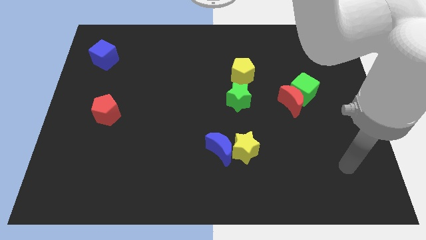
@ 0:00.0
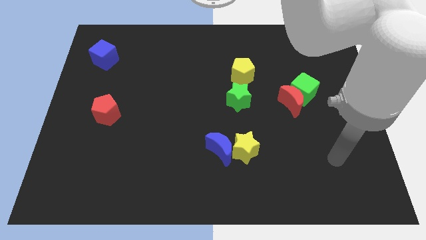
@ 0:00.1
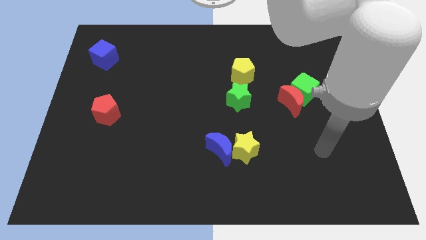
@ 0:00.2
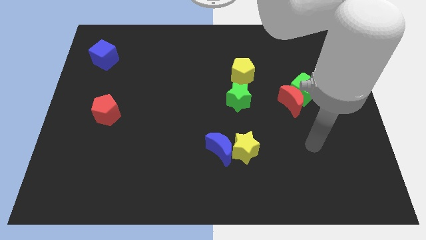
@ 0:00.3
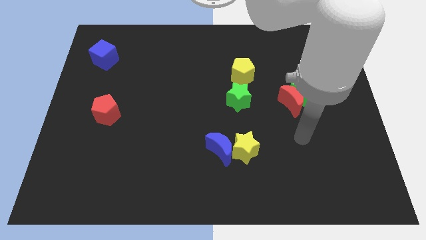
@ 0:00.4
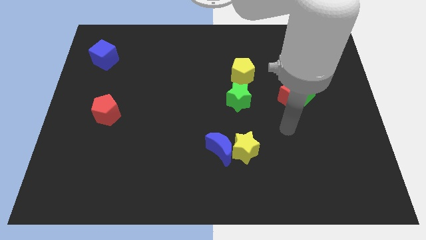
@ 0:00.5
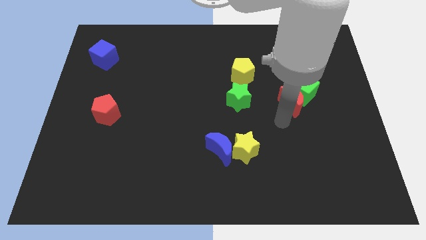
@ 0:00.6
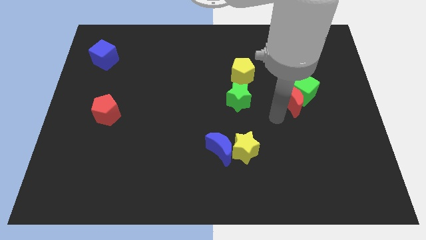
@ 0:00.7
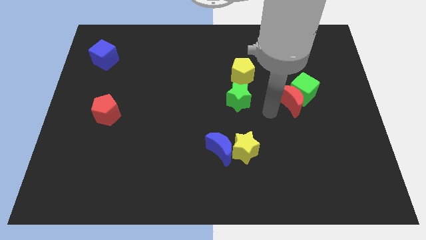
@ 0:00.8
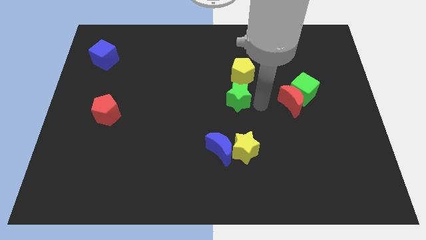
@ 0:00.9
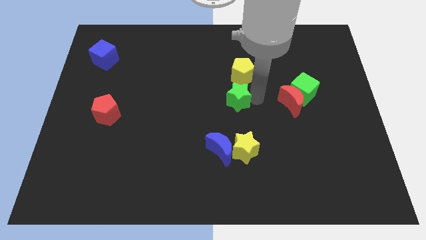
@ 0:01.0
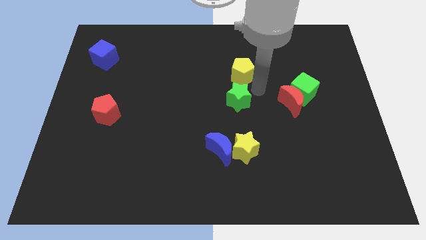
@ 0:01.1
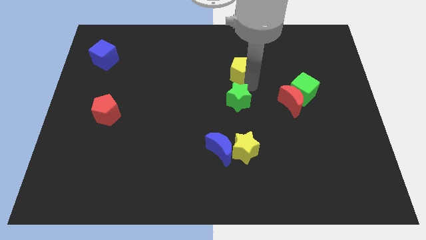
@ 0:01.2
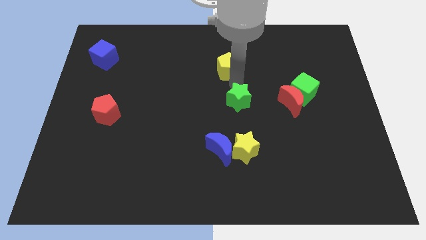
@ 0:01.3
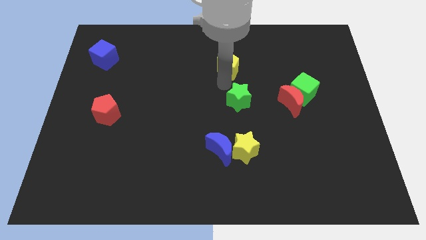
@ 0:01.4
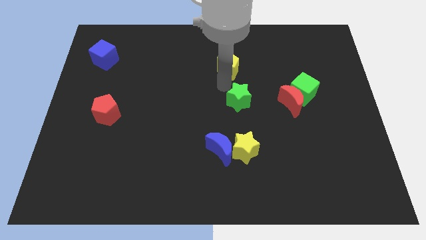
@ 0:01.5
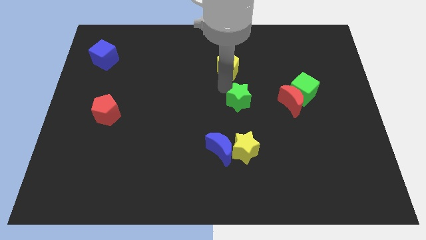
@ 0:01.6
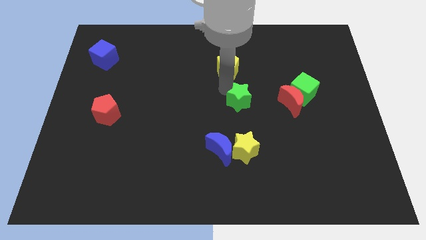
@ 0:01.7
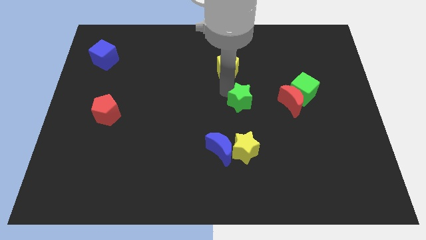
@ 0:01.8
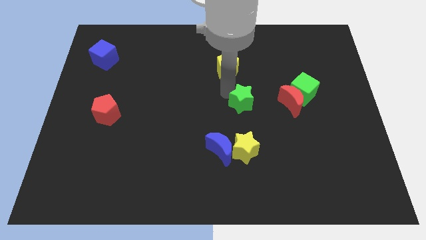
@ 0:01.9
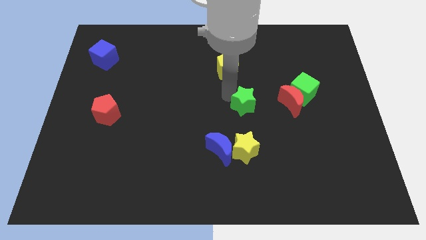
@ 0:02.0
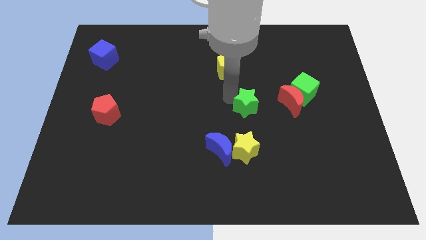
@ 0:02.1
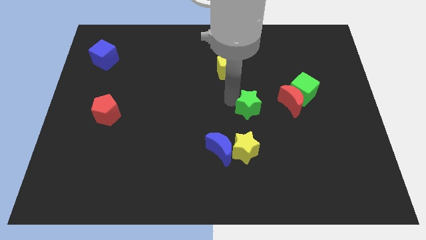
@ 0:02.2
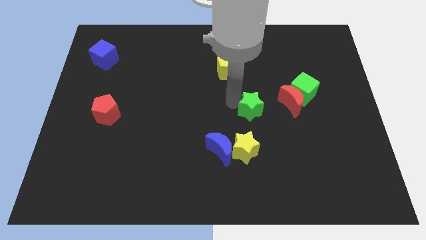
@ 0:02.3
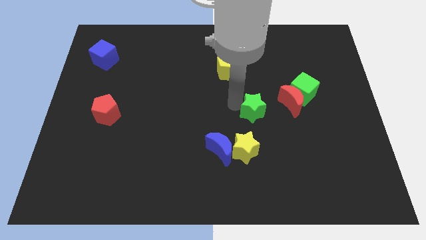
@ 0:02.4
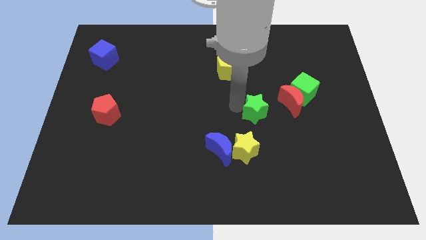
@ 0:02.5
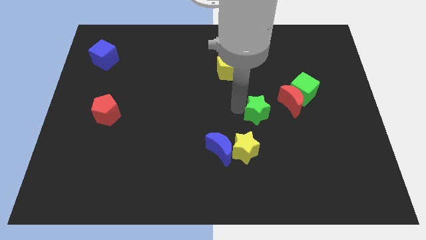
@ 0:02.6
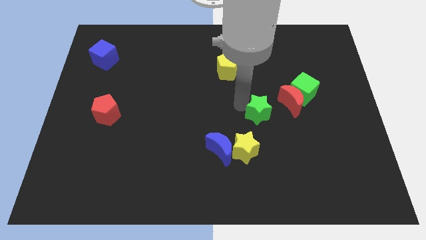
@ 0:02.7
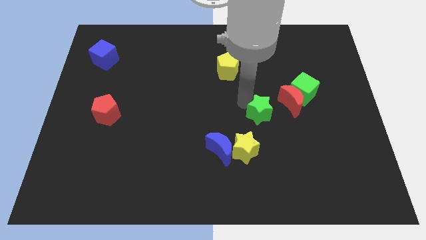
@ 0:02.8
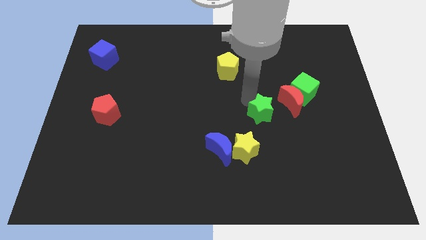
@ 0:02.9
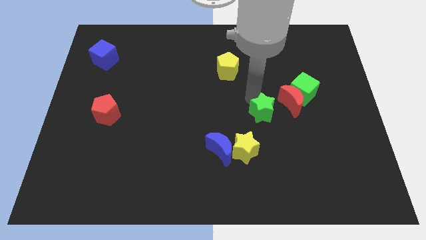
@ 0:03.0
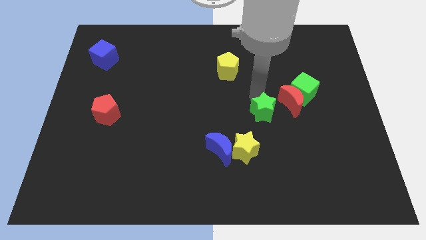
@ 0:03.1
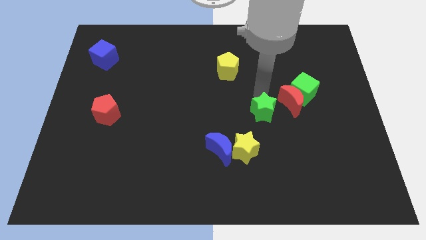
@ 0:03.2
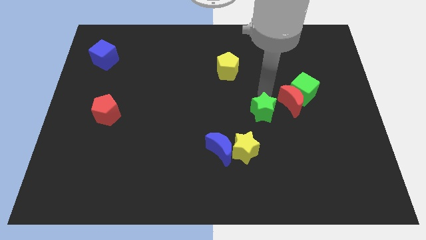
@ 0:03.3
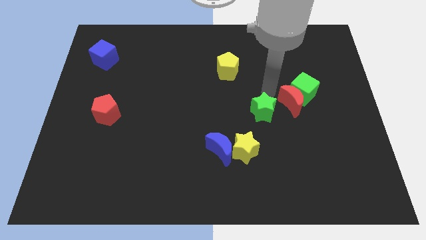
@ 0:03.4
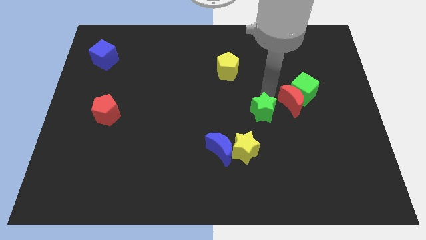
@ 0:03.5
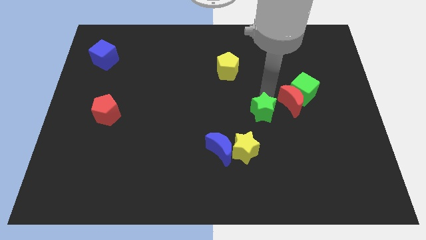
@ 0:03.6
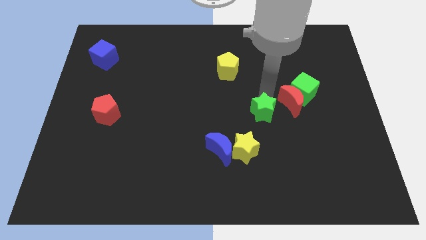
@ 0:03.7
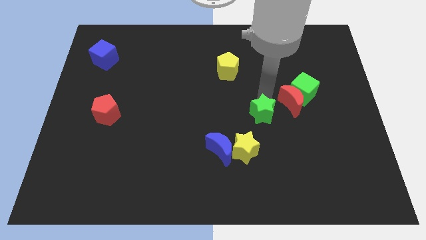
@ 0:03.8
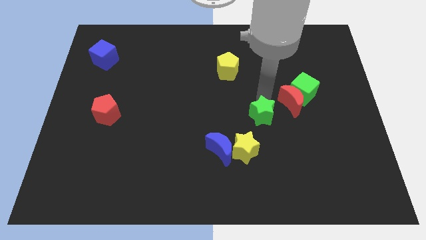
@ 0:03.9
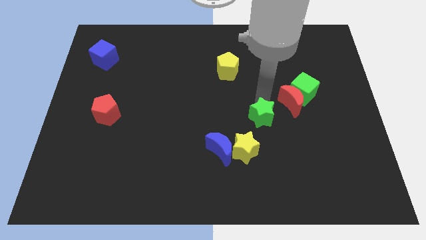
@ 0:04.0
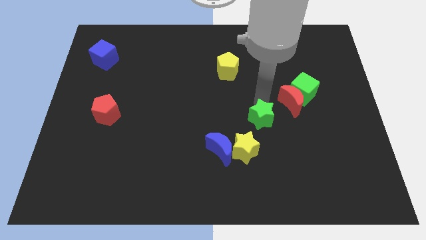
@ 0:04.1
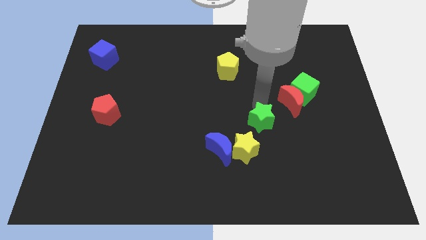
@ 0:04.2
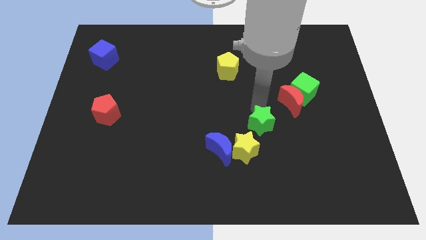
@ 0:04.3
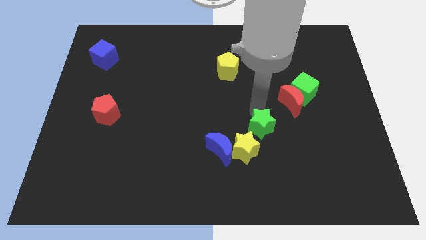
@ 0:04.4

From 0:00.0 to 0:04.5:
push the green star a little bit downwards

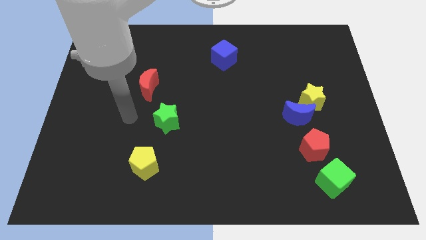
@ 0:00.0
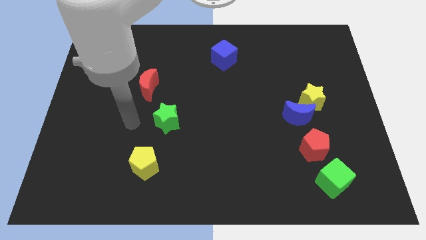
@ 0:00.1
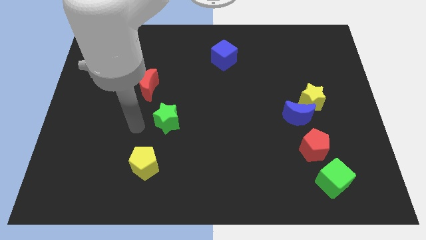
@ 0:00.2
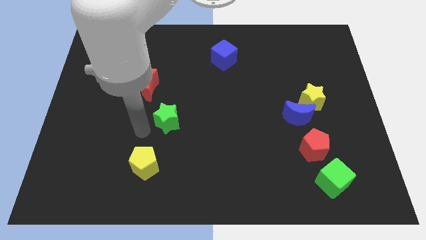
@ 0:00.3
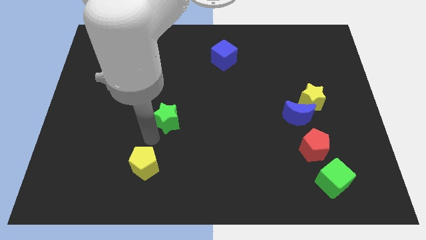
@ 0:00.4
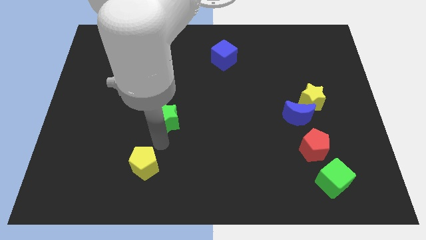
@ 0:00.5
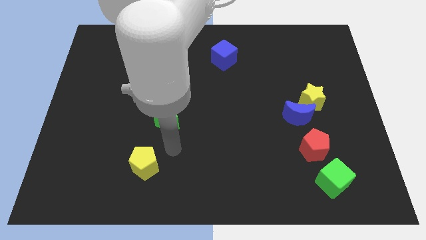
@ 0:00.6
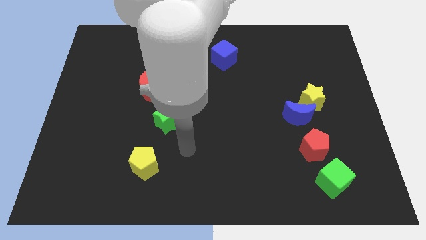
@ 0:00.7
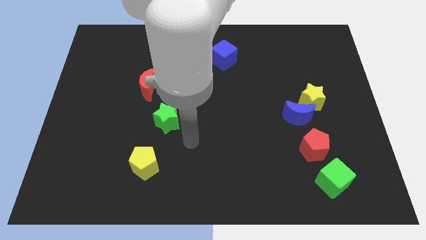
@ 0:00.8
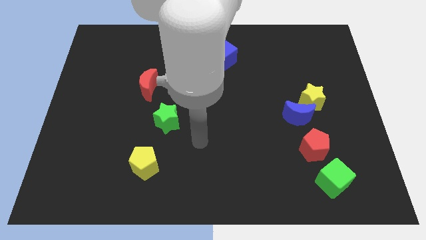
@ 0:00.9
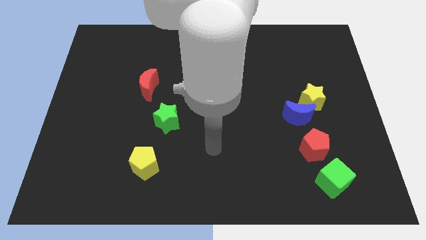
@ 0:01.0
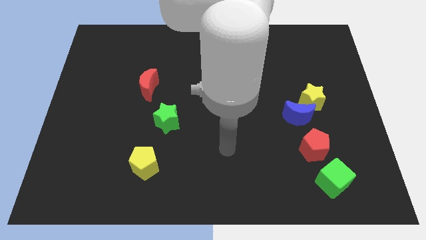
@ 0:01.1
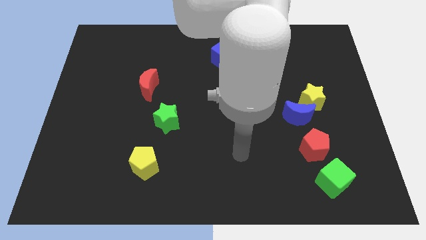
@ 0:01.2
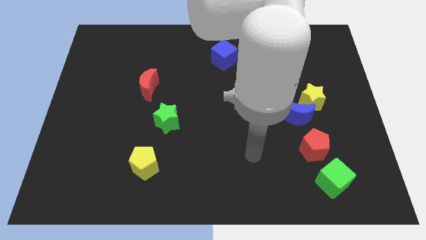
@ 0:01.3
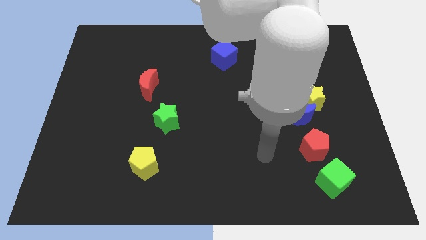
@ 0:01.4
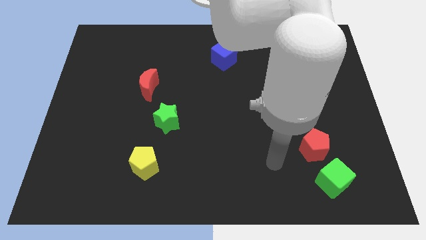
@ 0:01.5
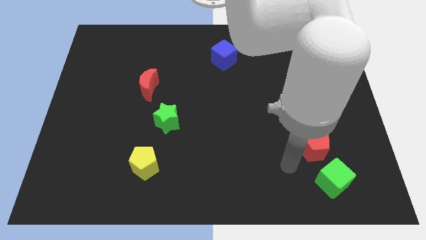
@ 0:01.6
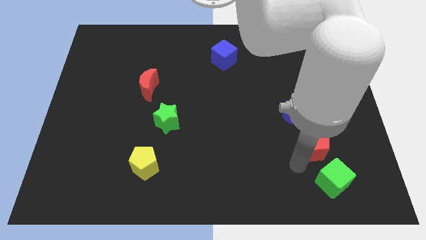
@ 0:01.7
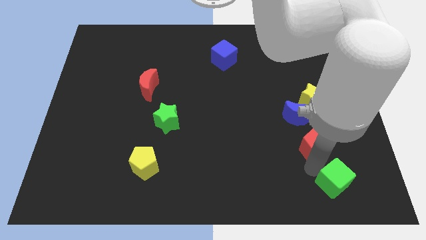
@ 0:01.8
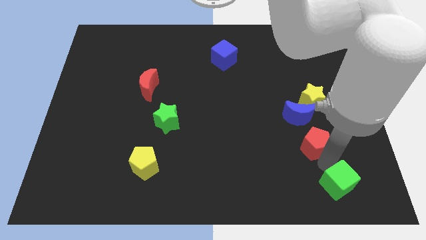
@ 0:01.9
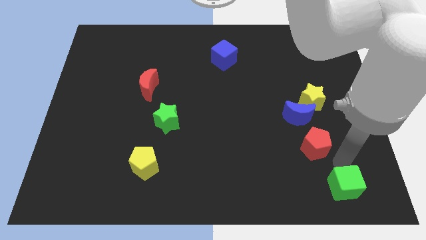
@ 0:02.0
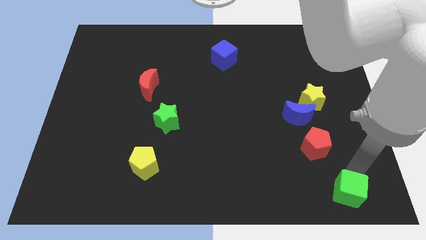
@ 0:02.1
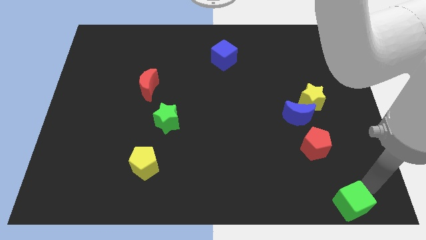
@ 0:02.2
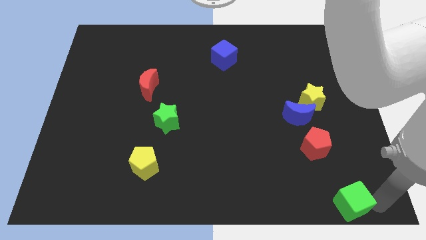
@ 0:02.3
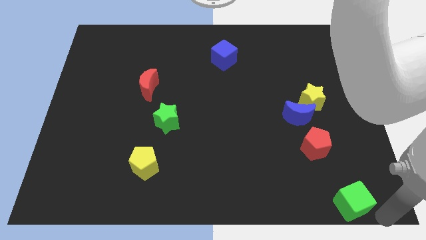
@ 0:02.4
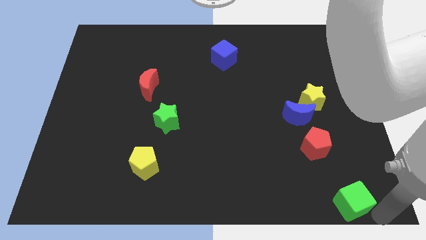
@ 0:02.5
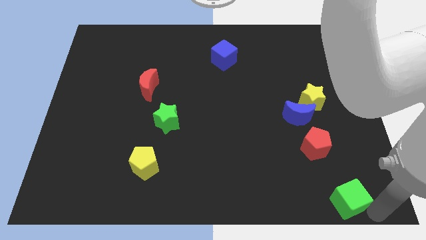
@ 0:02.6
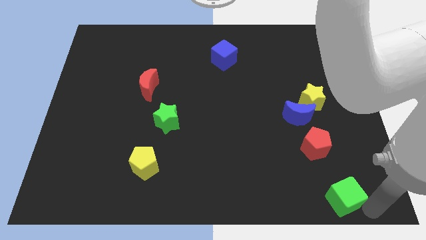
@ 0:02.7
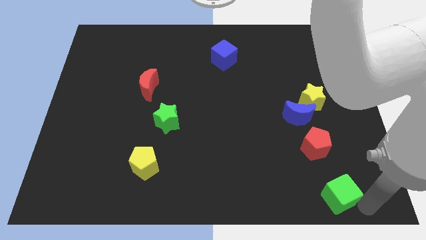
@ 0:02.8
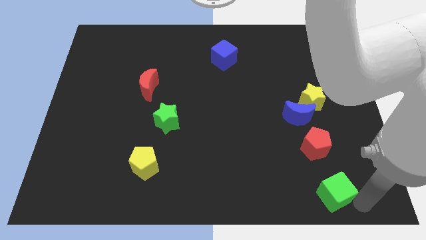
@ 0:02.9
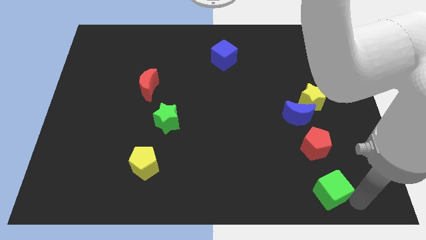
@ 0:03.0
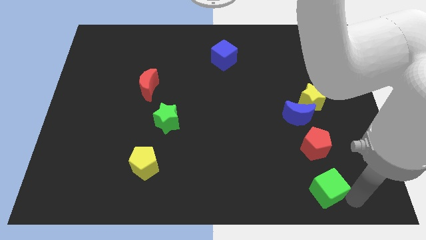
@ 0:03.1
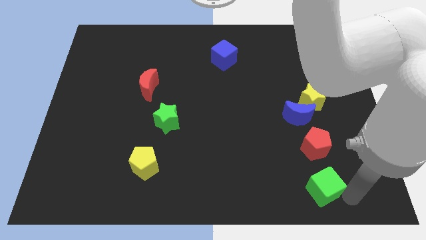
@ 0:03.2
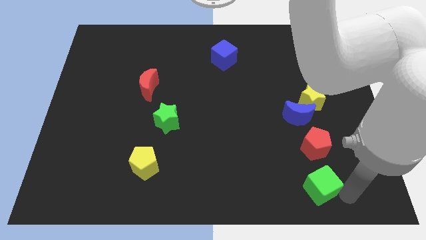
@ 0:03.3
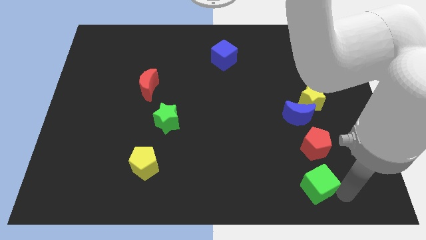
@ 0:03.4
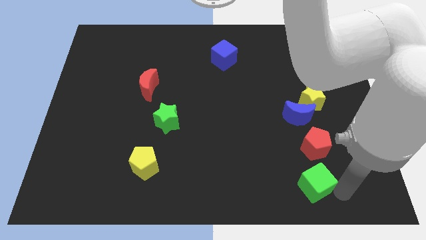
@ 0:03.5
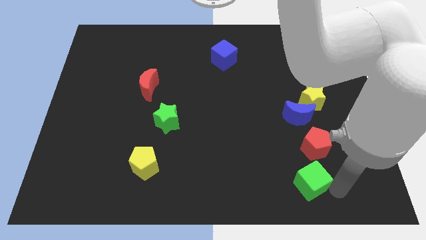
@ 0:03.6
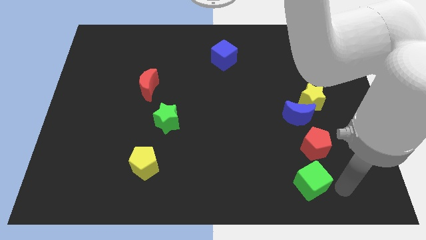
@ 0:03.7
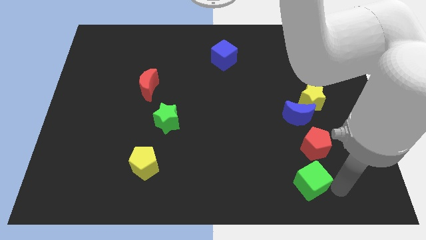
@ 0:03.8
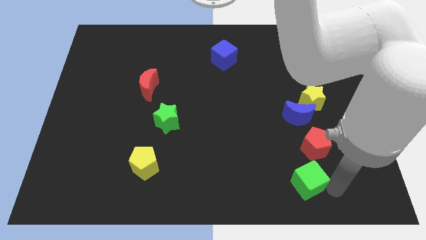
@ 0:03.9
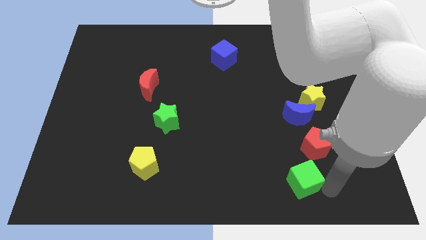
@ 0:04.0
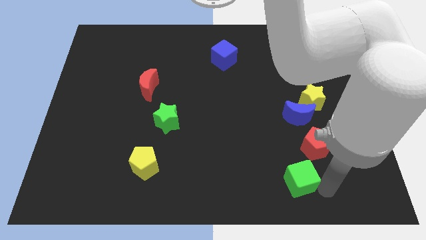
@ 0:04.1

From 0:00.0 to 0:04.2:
slightly slide the green cube left
